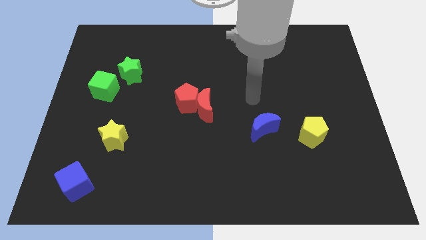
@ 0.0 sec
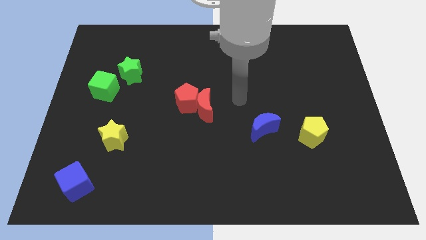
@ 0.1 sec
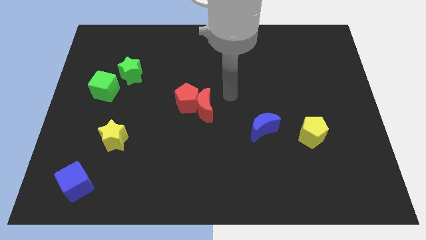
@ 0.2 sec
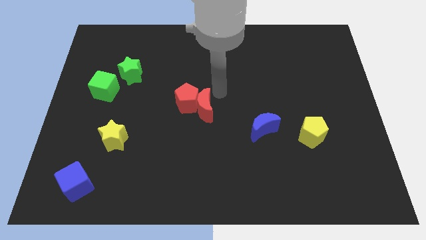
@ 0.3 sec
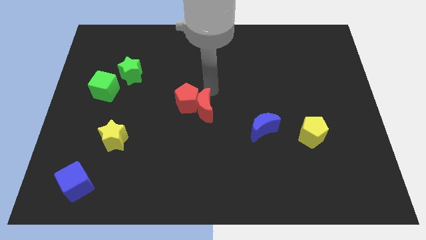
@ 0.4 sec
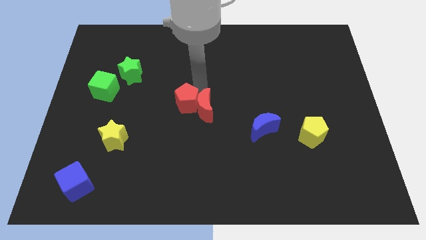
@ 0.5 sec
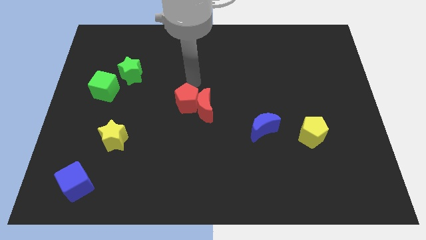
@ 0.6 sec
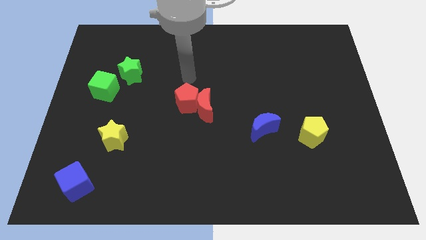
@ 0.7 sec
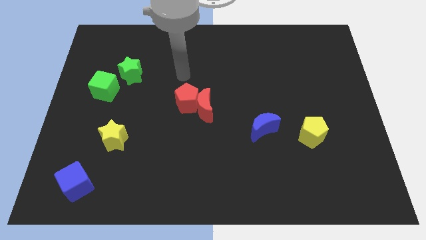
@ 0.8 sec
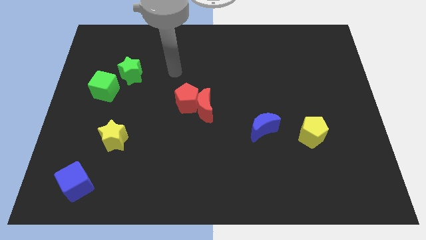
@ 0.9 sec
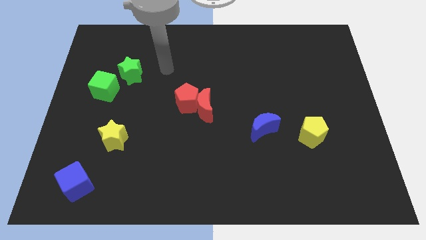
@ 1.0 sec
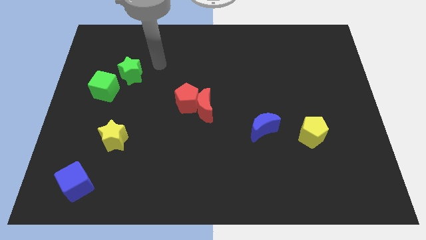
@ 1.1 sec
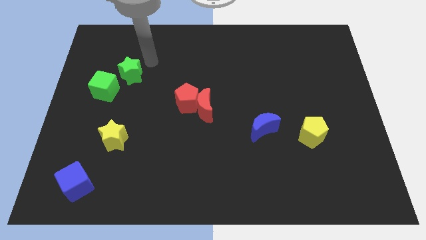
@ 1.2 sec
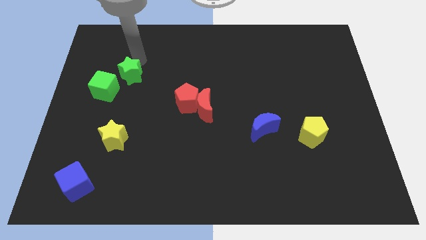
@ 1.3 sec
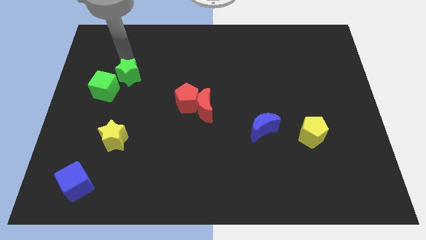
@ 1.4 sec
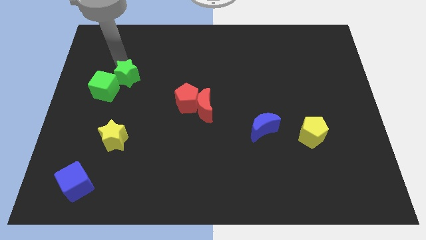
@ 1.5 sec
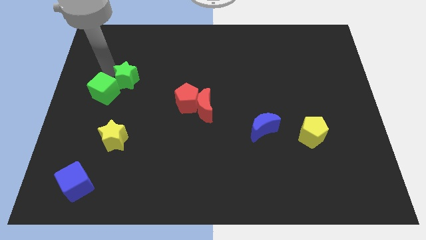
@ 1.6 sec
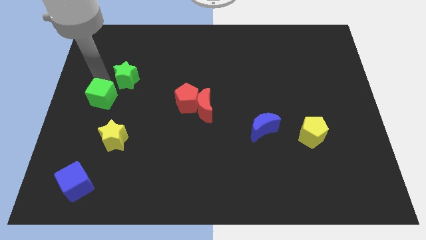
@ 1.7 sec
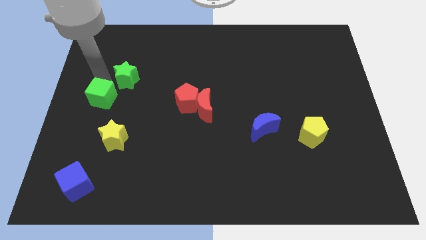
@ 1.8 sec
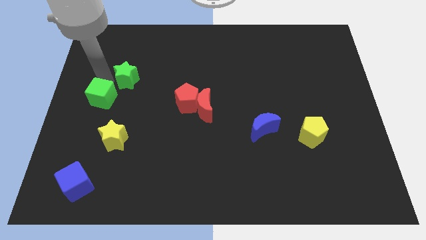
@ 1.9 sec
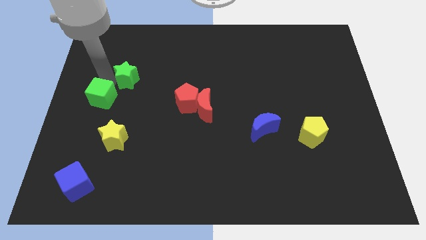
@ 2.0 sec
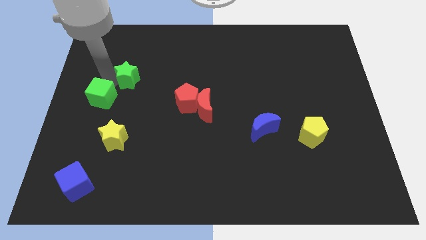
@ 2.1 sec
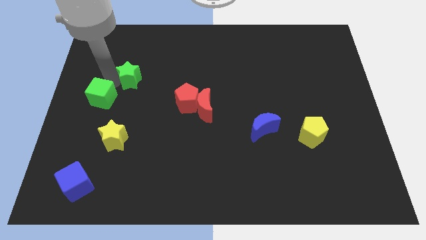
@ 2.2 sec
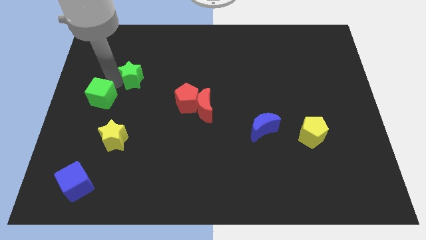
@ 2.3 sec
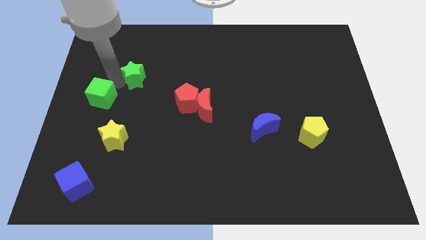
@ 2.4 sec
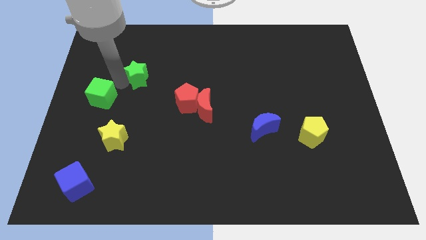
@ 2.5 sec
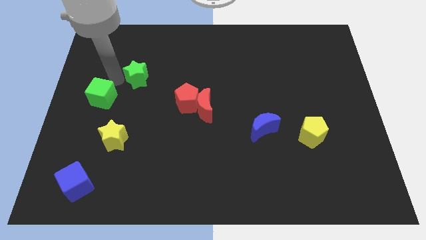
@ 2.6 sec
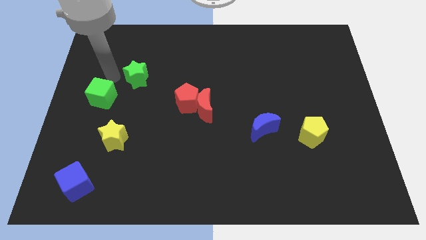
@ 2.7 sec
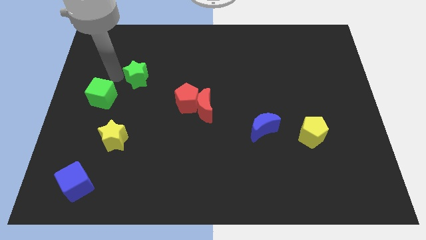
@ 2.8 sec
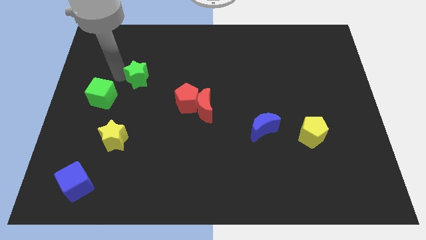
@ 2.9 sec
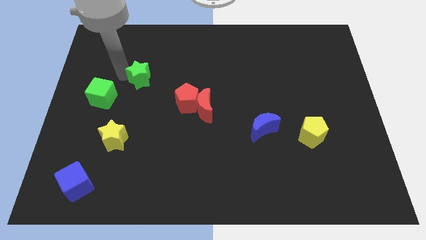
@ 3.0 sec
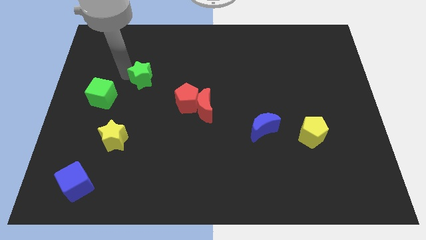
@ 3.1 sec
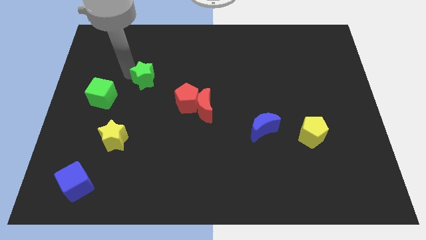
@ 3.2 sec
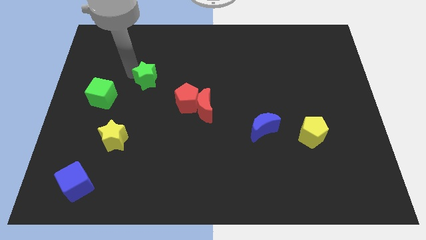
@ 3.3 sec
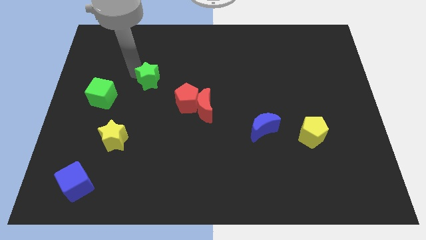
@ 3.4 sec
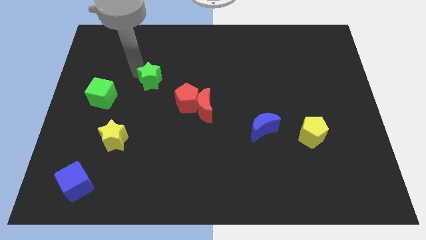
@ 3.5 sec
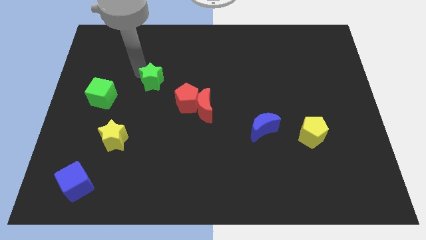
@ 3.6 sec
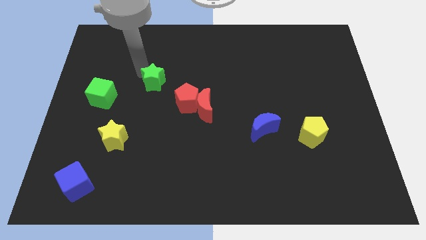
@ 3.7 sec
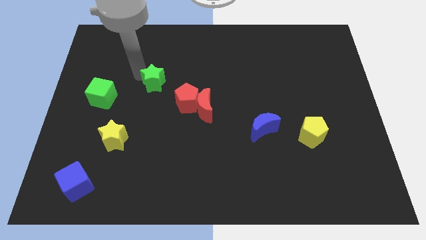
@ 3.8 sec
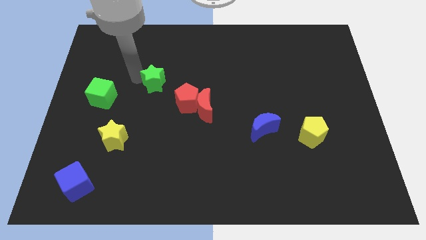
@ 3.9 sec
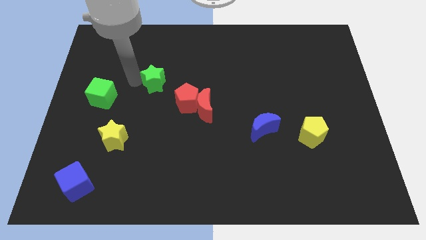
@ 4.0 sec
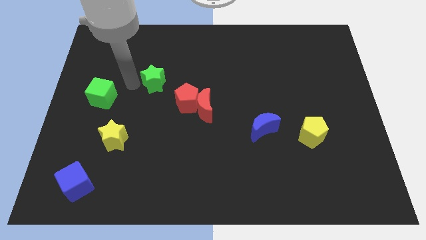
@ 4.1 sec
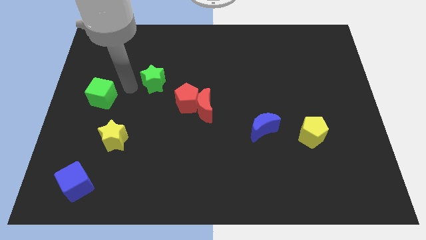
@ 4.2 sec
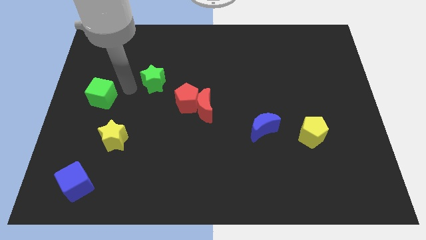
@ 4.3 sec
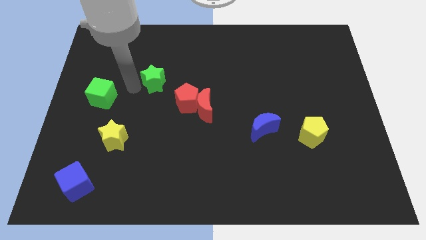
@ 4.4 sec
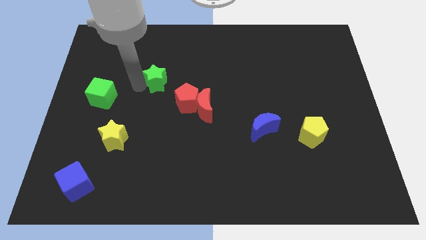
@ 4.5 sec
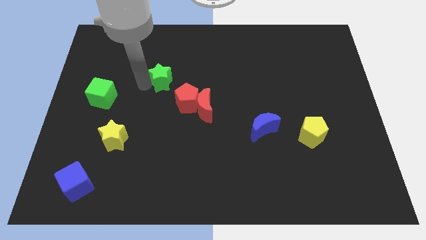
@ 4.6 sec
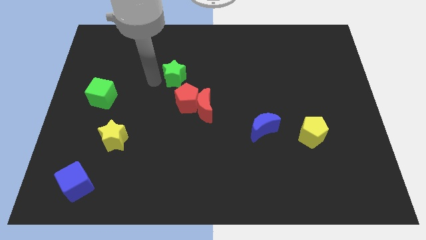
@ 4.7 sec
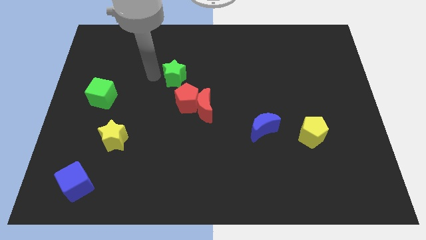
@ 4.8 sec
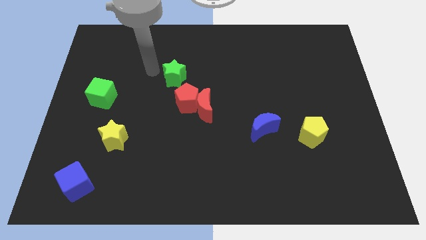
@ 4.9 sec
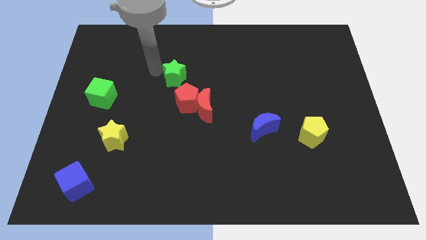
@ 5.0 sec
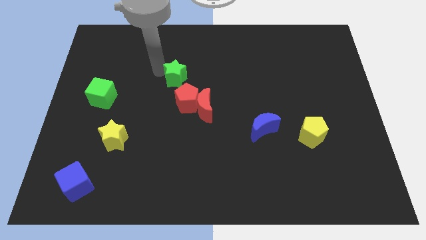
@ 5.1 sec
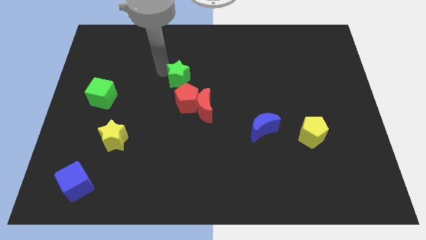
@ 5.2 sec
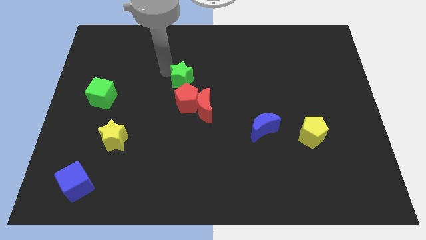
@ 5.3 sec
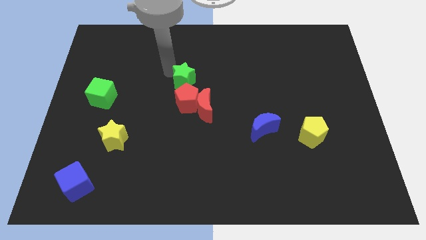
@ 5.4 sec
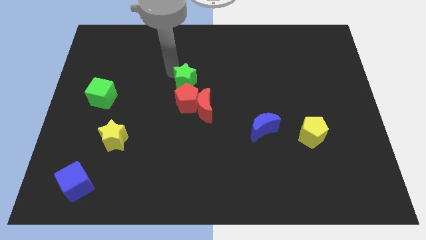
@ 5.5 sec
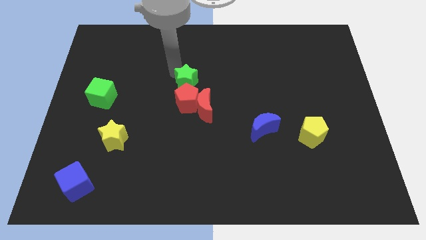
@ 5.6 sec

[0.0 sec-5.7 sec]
put the green star diagonally up and to the right of the red pentagon

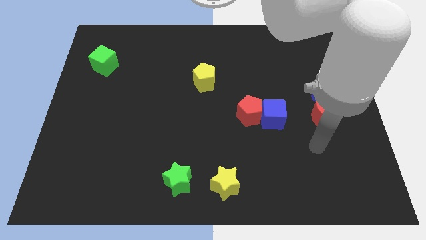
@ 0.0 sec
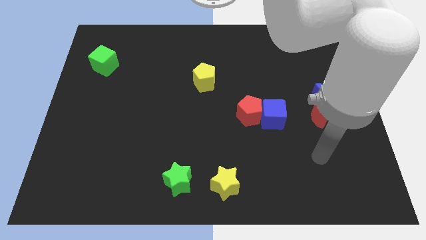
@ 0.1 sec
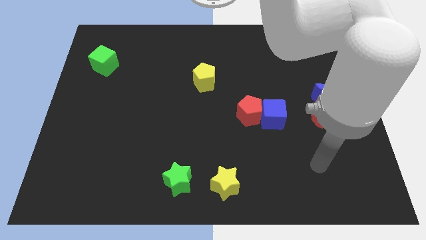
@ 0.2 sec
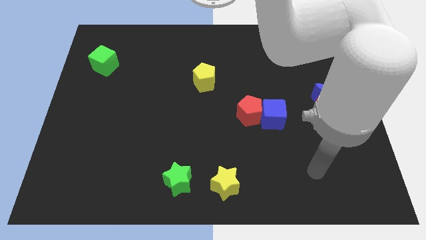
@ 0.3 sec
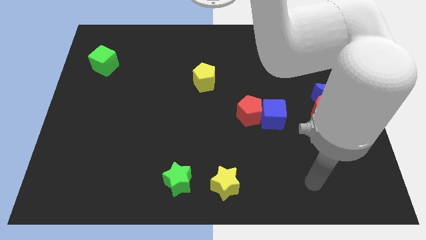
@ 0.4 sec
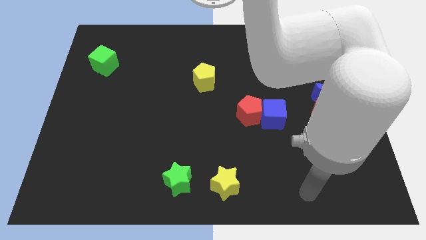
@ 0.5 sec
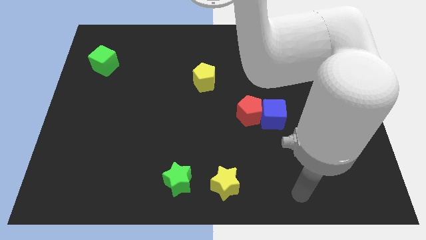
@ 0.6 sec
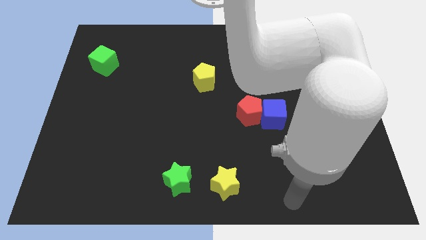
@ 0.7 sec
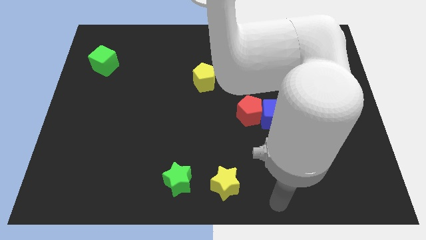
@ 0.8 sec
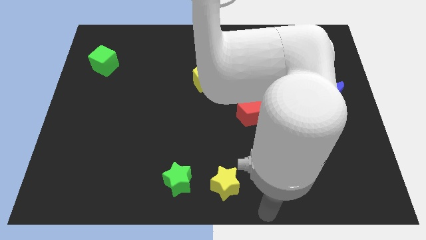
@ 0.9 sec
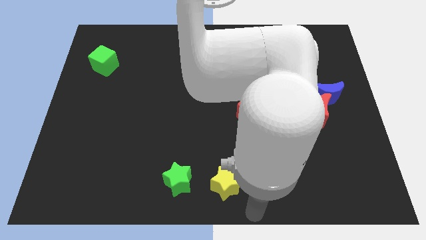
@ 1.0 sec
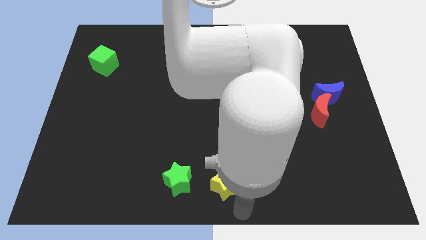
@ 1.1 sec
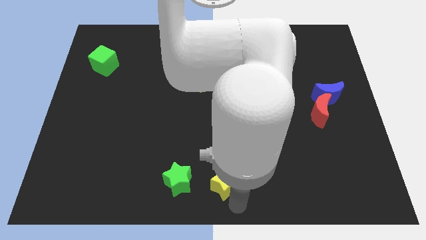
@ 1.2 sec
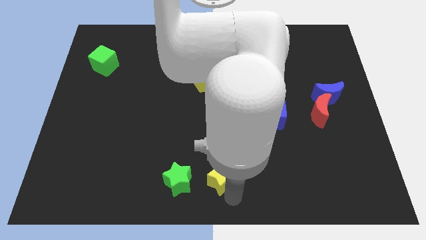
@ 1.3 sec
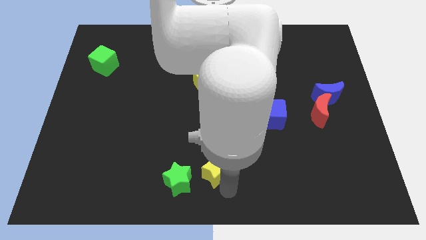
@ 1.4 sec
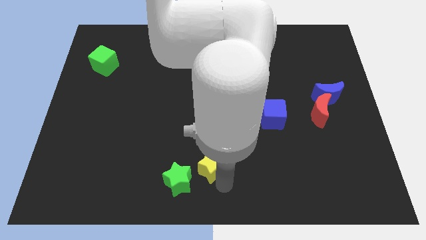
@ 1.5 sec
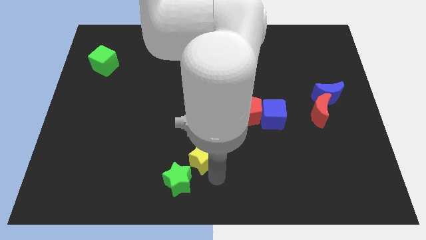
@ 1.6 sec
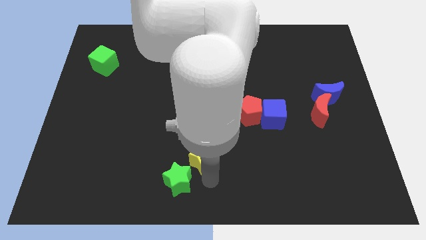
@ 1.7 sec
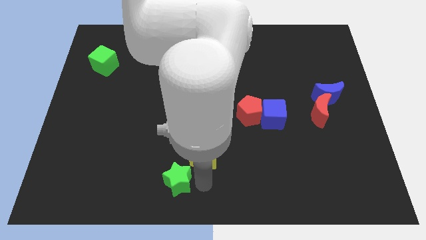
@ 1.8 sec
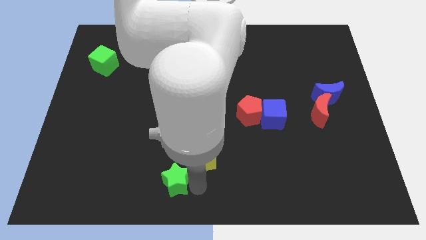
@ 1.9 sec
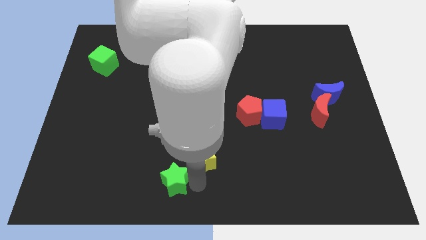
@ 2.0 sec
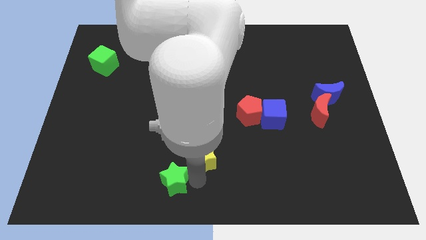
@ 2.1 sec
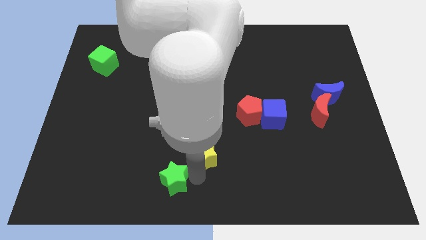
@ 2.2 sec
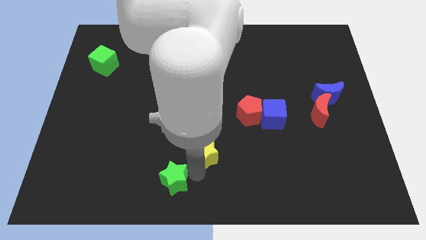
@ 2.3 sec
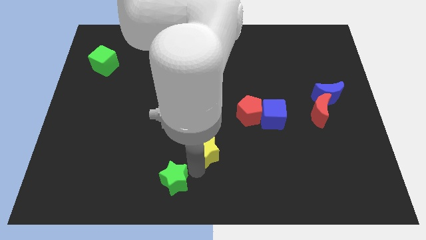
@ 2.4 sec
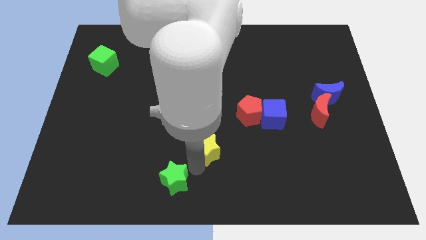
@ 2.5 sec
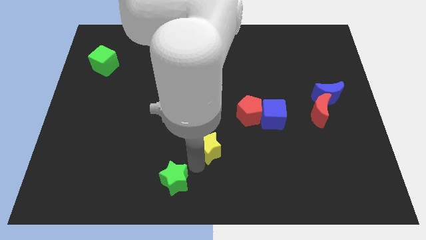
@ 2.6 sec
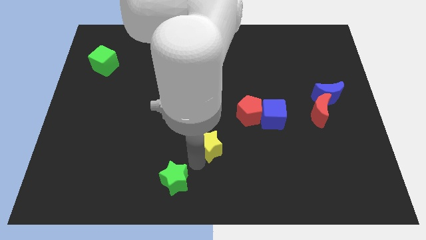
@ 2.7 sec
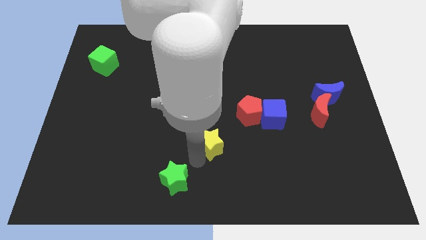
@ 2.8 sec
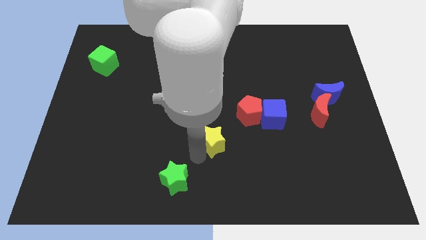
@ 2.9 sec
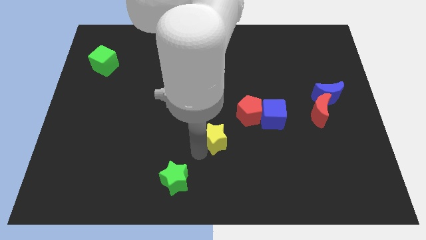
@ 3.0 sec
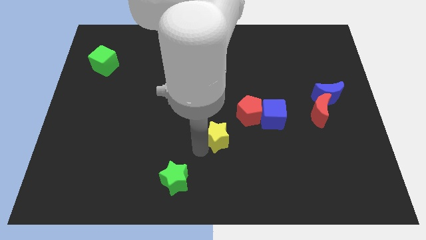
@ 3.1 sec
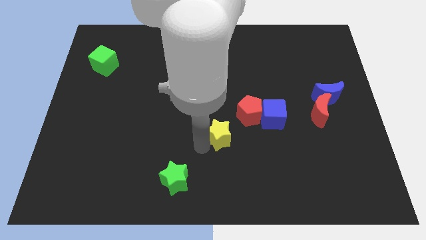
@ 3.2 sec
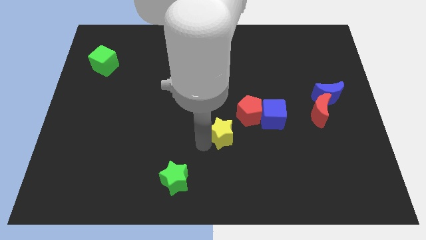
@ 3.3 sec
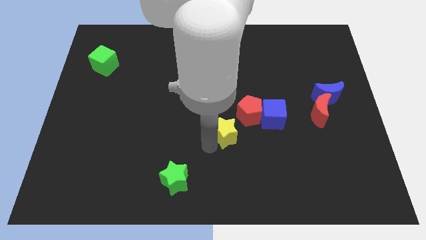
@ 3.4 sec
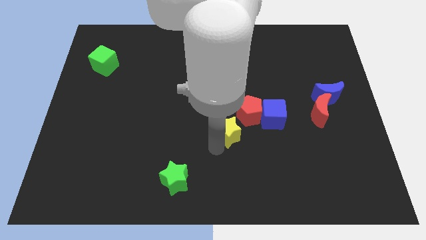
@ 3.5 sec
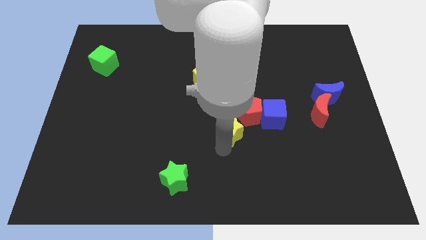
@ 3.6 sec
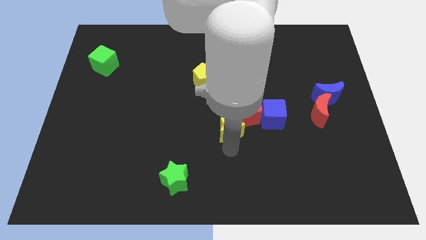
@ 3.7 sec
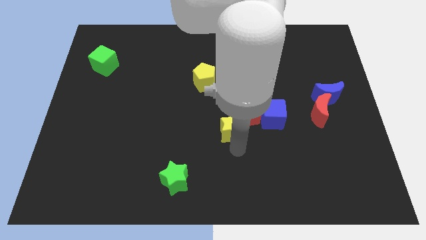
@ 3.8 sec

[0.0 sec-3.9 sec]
slide the yellow star to the left side of the red pentagon
